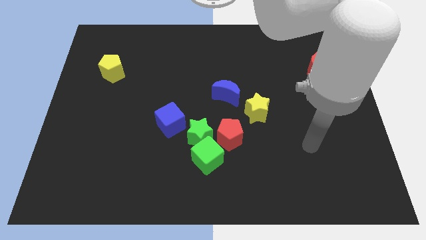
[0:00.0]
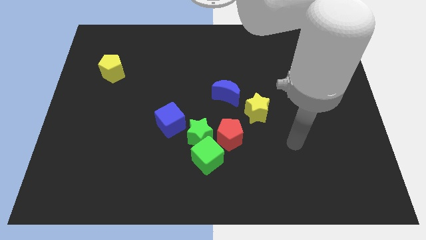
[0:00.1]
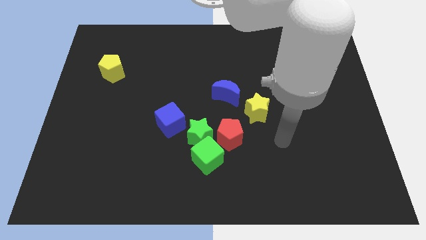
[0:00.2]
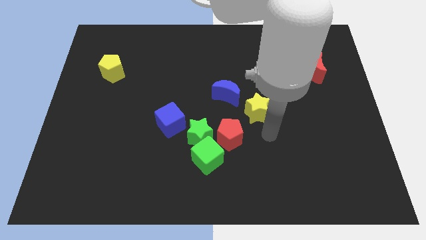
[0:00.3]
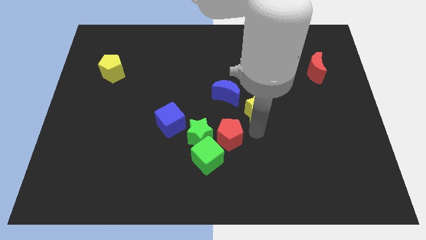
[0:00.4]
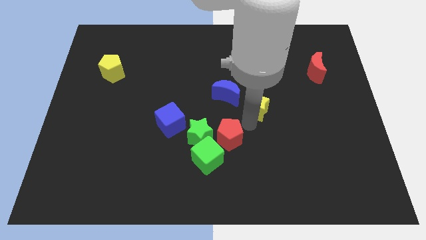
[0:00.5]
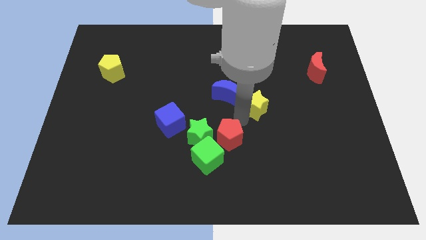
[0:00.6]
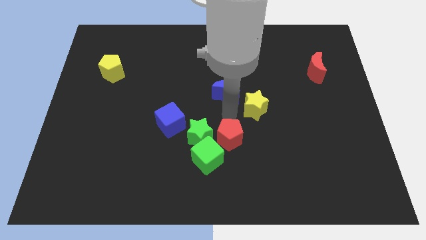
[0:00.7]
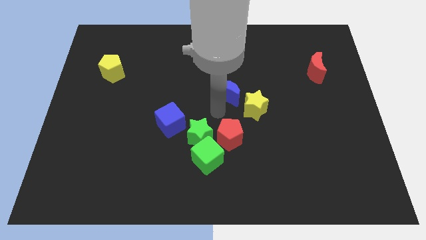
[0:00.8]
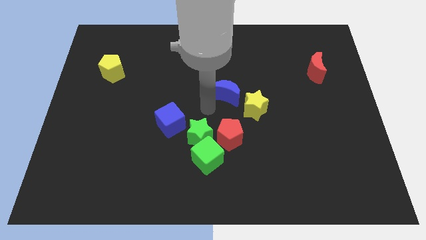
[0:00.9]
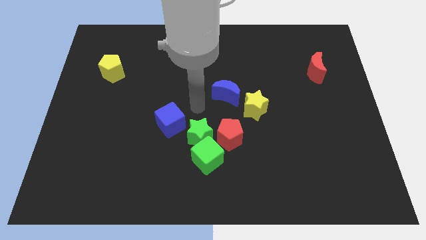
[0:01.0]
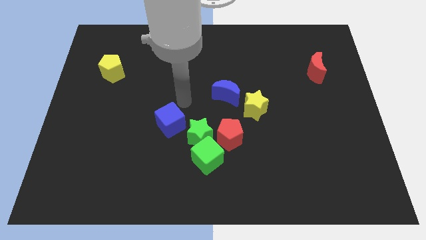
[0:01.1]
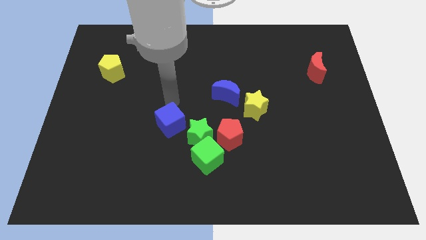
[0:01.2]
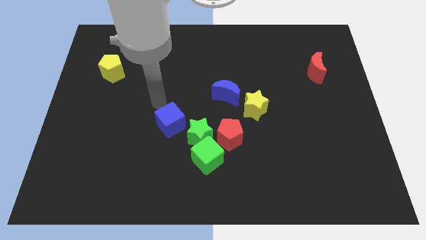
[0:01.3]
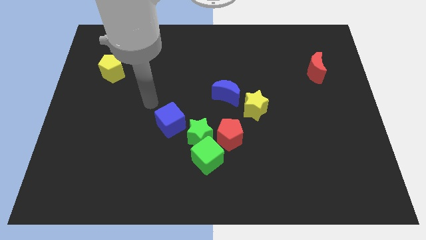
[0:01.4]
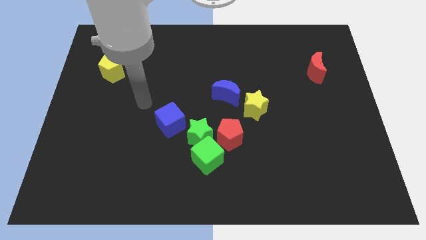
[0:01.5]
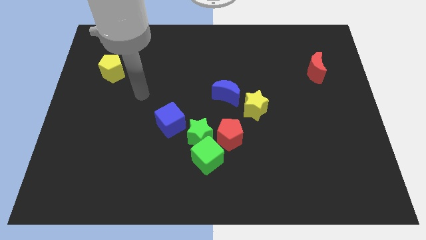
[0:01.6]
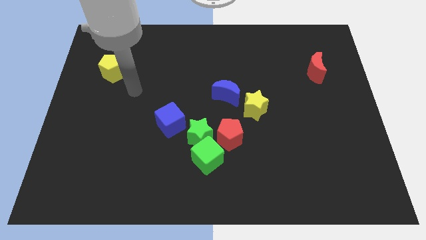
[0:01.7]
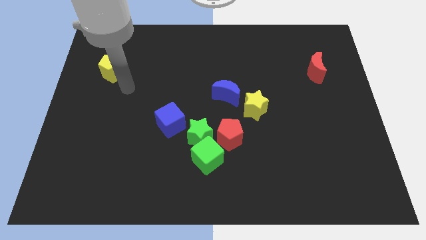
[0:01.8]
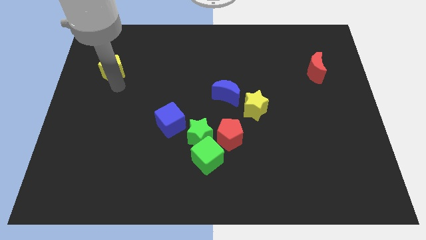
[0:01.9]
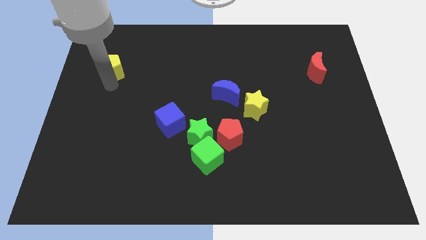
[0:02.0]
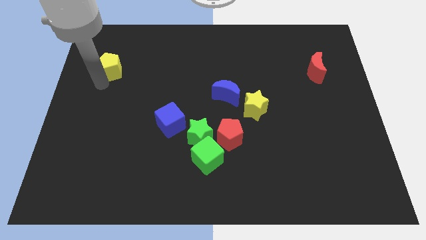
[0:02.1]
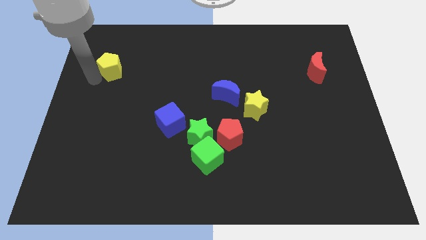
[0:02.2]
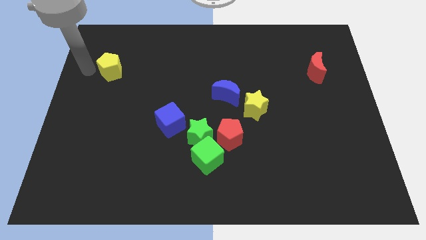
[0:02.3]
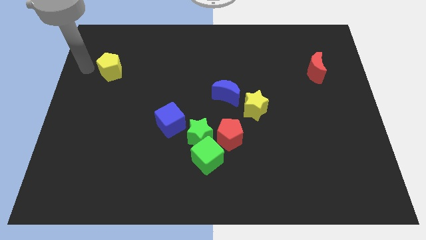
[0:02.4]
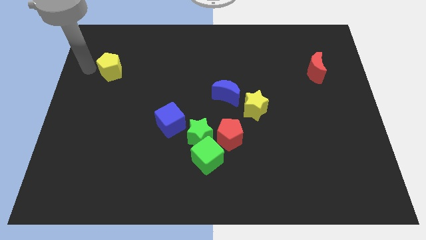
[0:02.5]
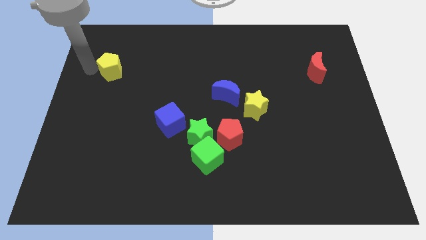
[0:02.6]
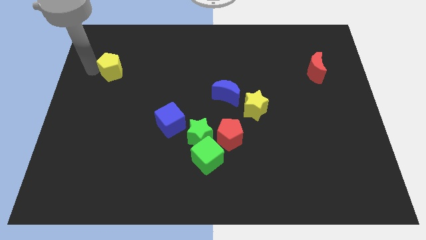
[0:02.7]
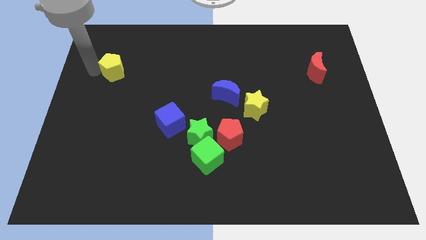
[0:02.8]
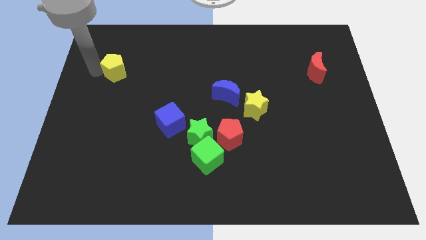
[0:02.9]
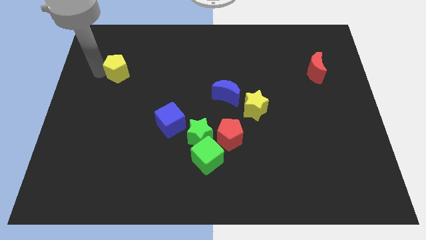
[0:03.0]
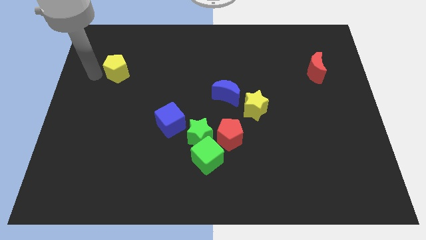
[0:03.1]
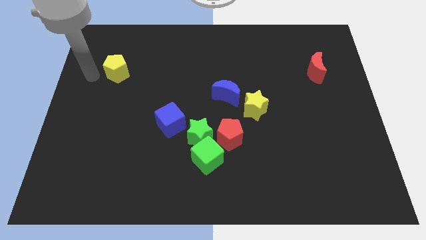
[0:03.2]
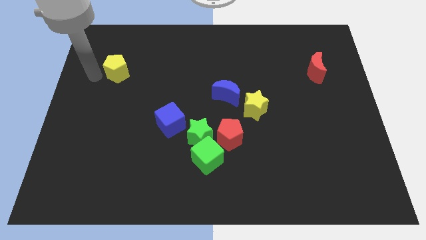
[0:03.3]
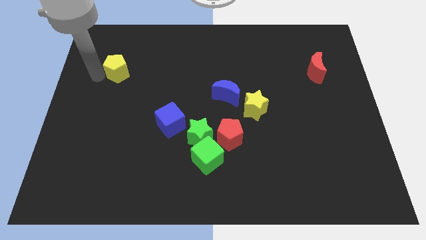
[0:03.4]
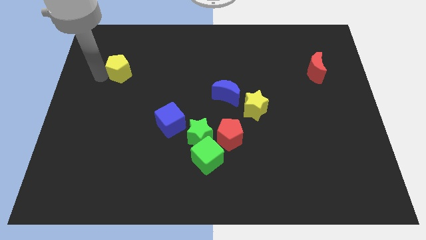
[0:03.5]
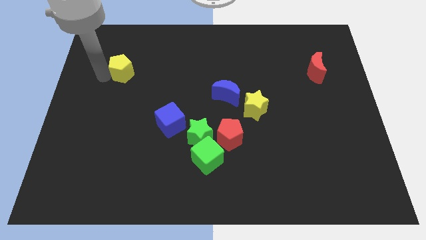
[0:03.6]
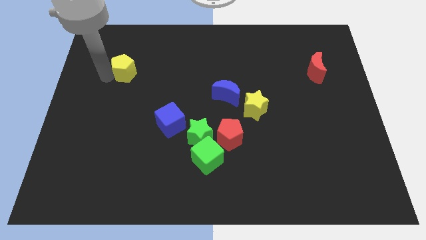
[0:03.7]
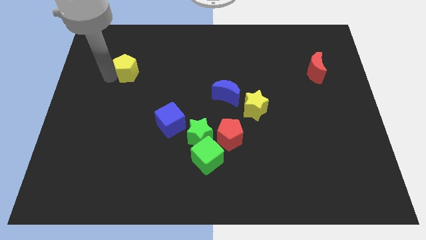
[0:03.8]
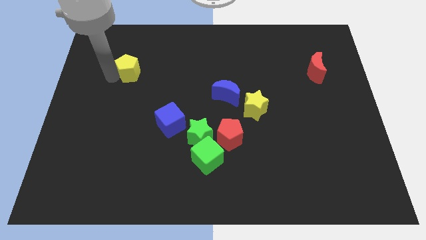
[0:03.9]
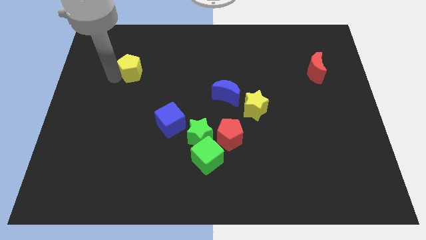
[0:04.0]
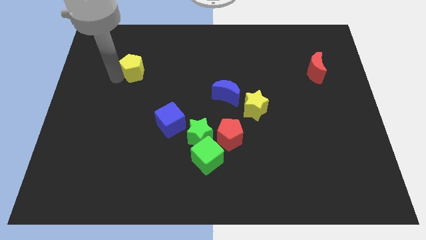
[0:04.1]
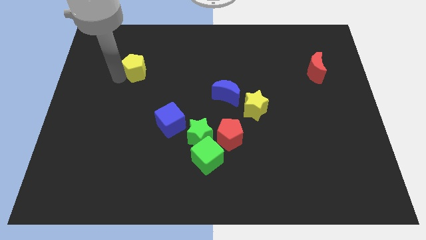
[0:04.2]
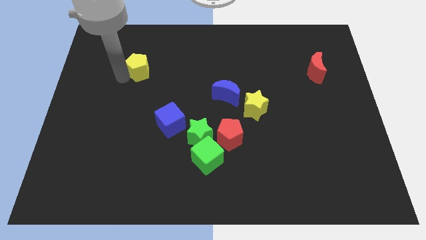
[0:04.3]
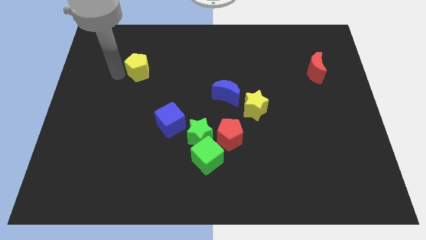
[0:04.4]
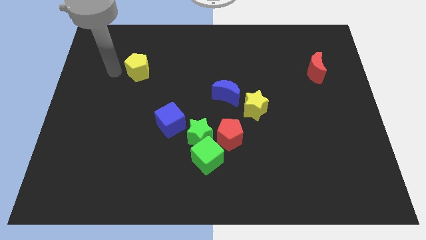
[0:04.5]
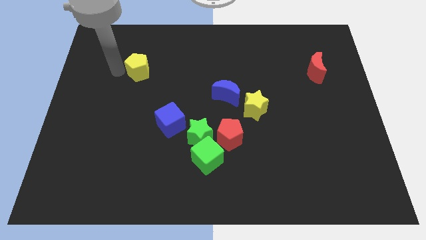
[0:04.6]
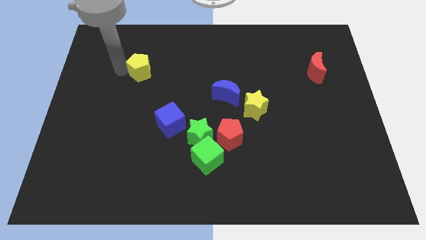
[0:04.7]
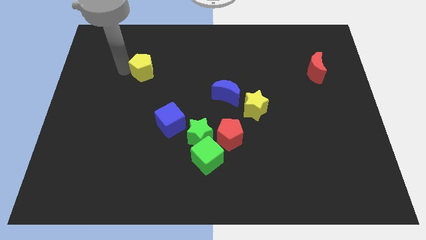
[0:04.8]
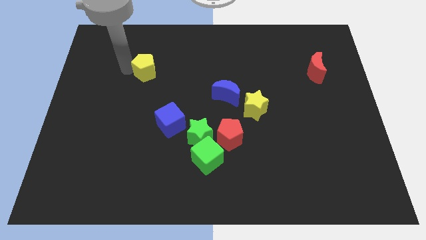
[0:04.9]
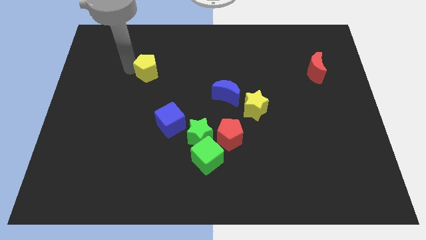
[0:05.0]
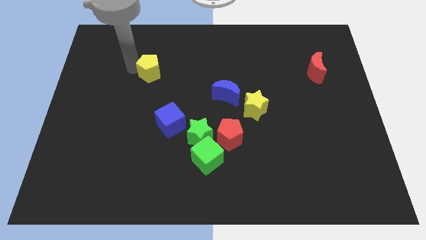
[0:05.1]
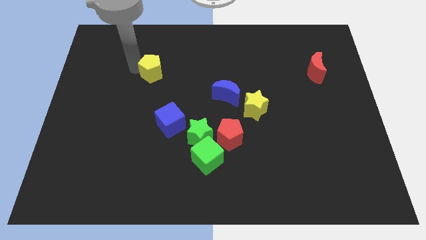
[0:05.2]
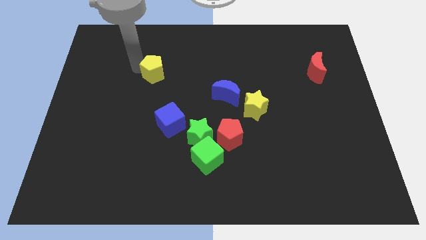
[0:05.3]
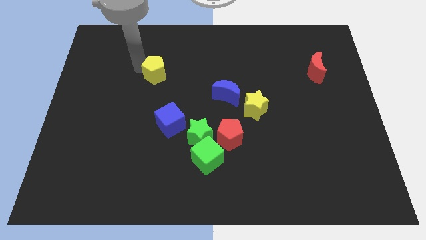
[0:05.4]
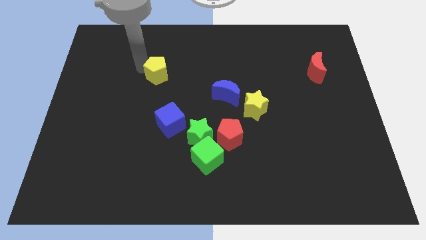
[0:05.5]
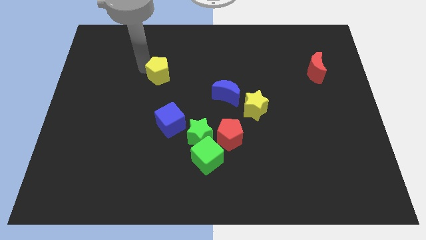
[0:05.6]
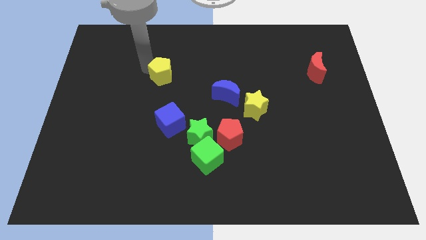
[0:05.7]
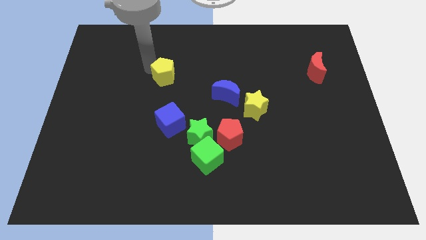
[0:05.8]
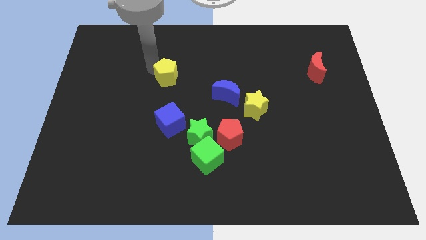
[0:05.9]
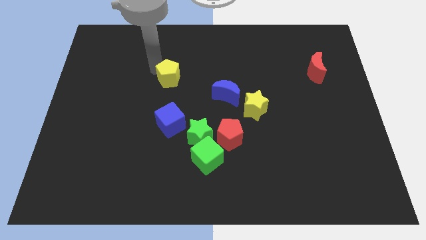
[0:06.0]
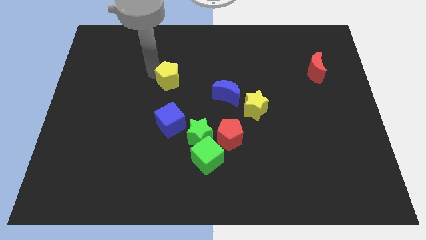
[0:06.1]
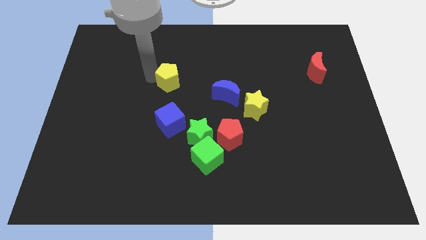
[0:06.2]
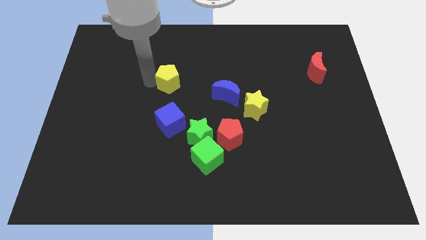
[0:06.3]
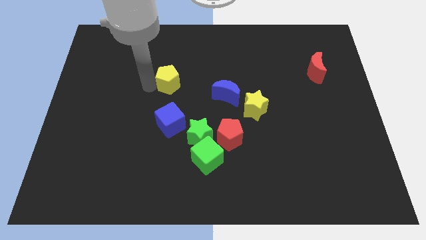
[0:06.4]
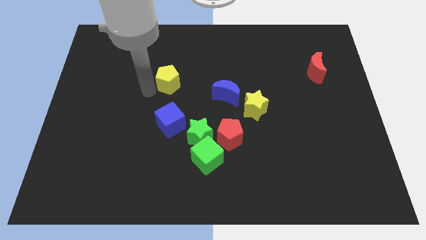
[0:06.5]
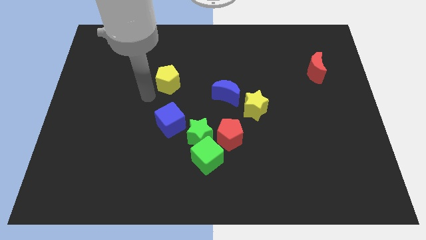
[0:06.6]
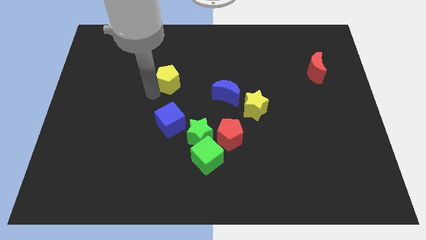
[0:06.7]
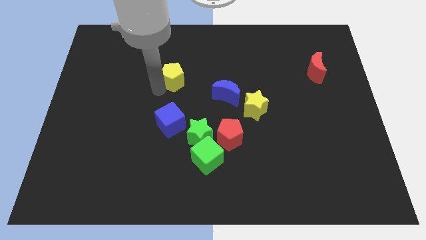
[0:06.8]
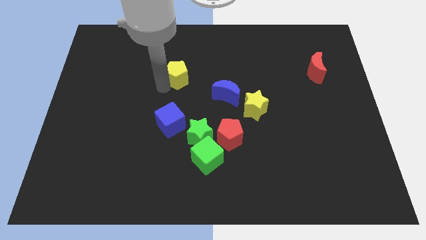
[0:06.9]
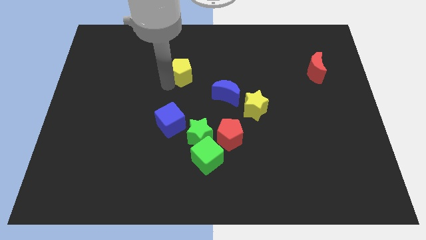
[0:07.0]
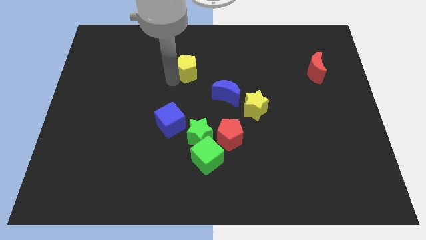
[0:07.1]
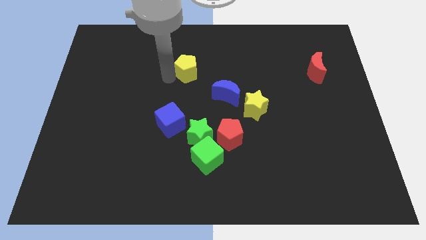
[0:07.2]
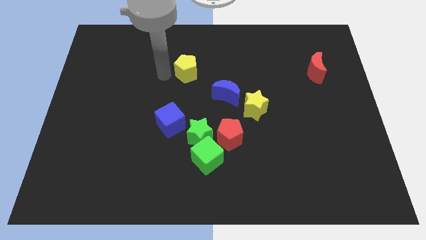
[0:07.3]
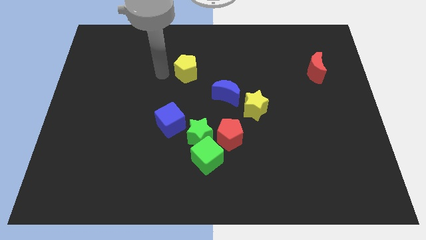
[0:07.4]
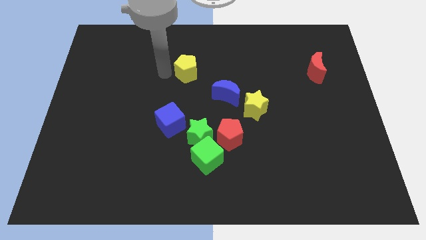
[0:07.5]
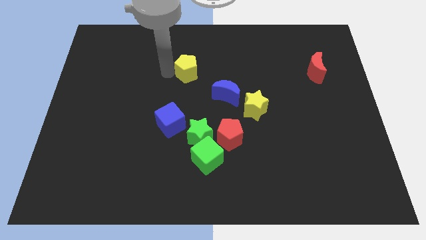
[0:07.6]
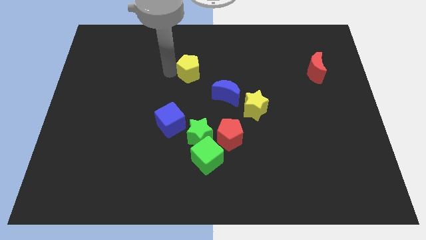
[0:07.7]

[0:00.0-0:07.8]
move the yellow pentagon to the right
